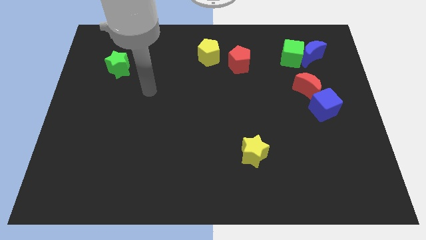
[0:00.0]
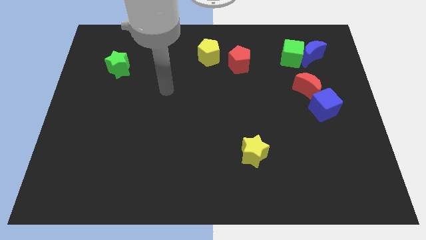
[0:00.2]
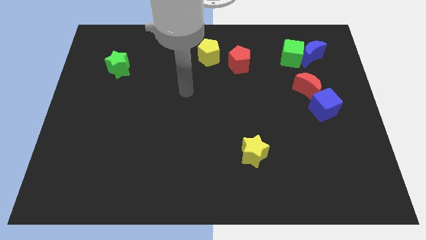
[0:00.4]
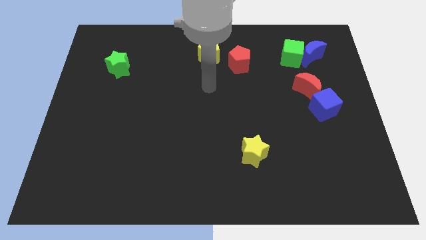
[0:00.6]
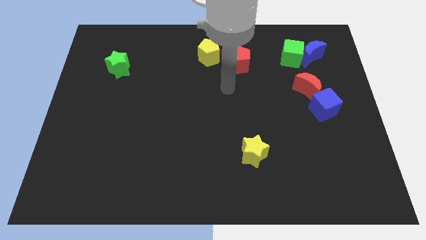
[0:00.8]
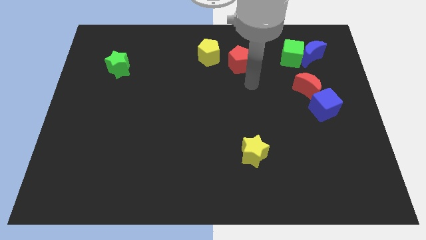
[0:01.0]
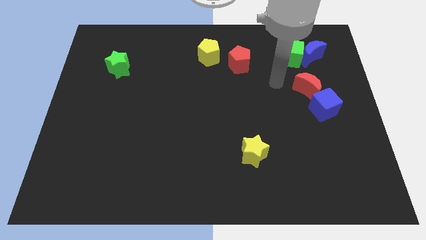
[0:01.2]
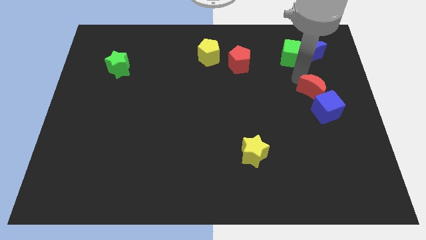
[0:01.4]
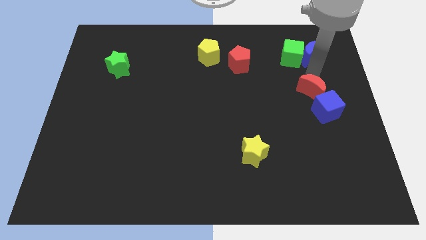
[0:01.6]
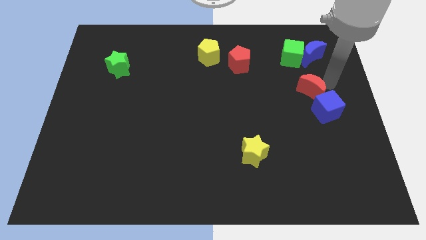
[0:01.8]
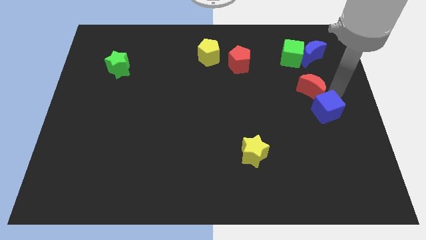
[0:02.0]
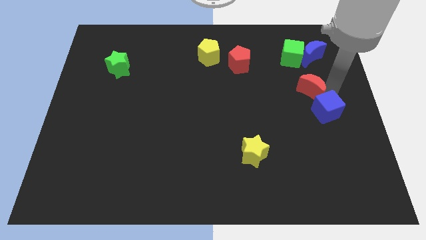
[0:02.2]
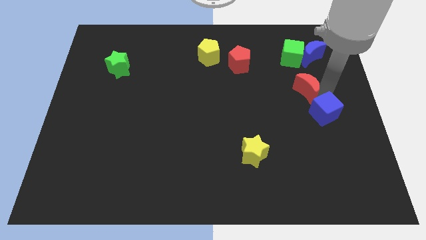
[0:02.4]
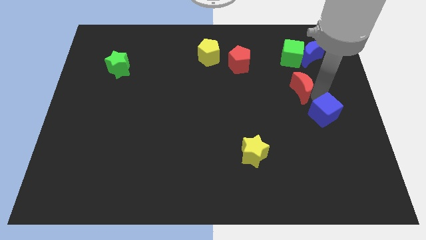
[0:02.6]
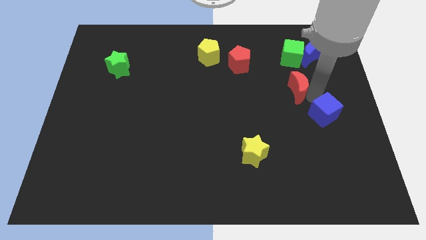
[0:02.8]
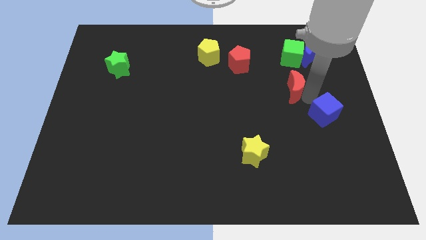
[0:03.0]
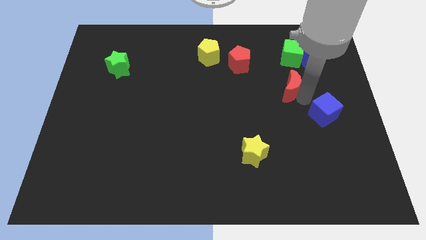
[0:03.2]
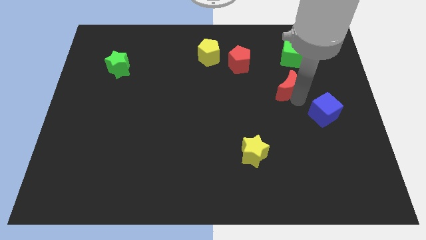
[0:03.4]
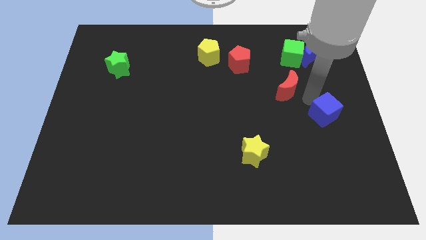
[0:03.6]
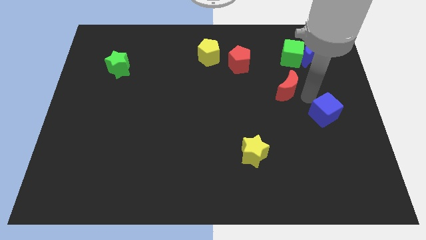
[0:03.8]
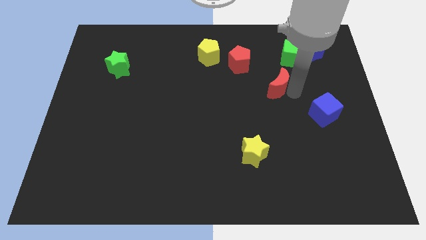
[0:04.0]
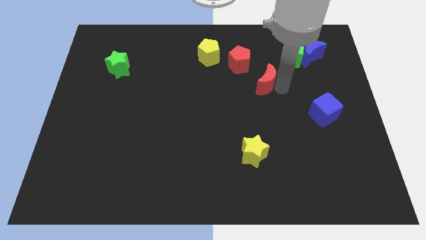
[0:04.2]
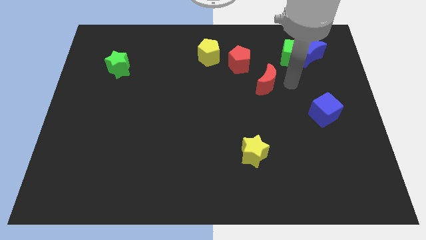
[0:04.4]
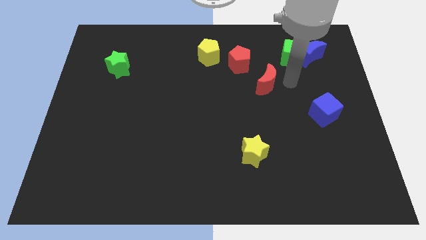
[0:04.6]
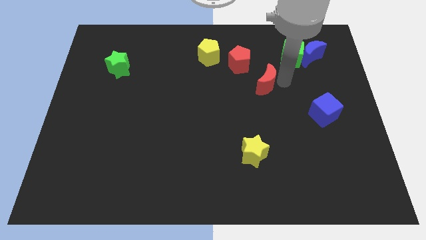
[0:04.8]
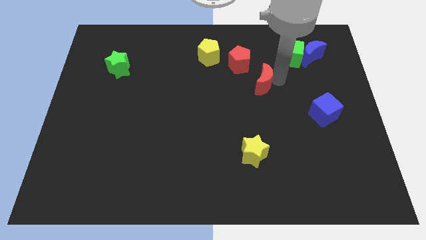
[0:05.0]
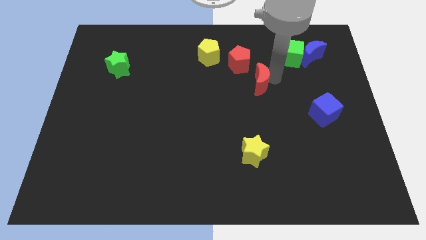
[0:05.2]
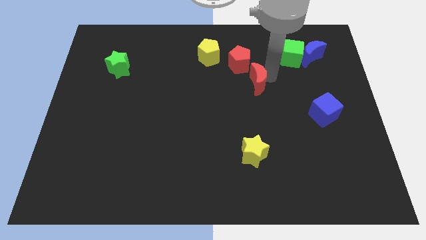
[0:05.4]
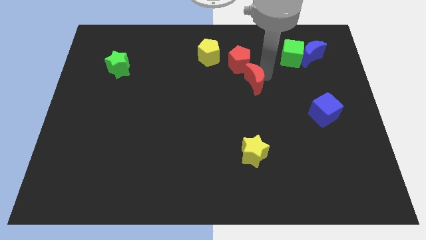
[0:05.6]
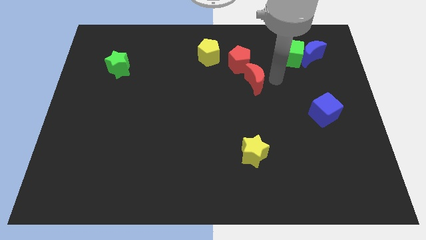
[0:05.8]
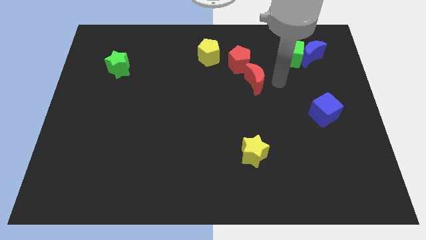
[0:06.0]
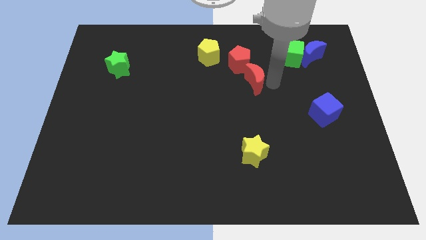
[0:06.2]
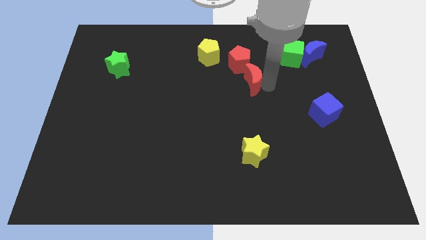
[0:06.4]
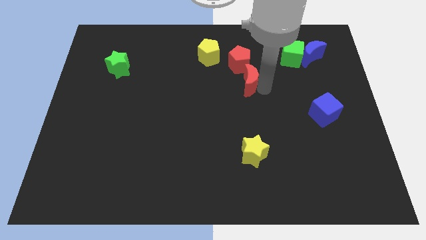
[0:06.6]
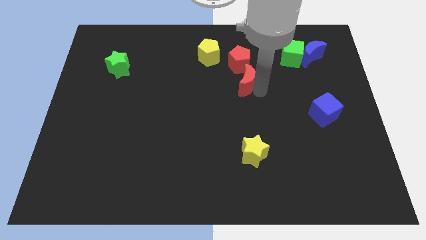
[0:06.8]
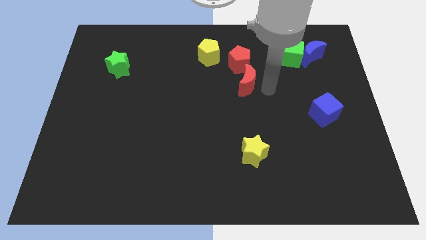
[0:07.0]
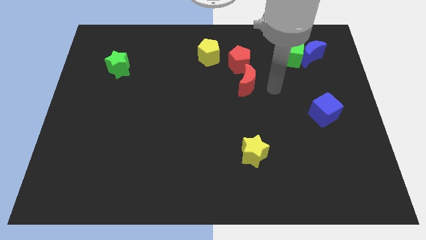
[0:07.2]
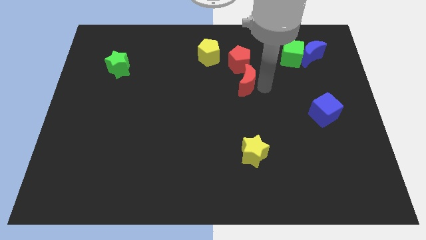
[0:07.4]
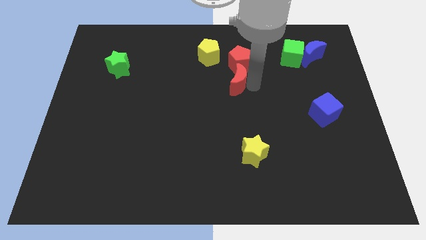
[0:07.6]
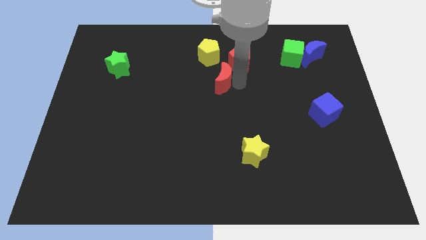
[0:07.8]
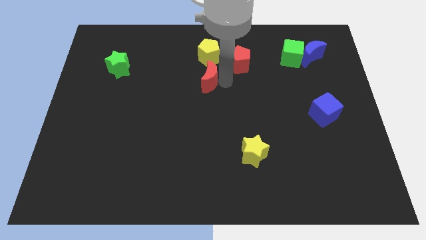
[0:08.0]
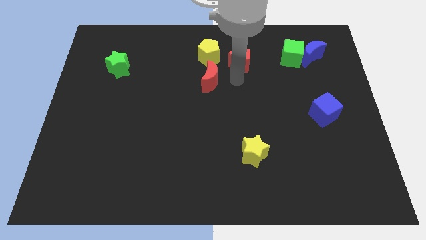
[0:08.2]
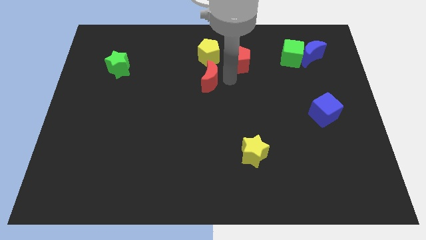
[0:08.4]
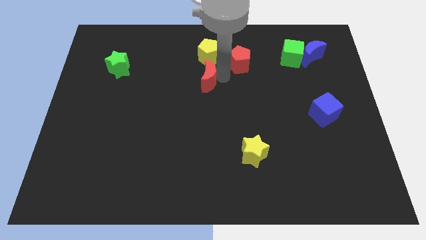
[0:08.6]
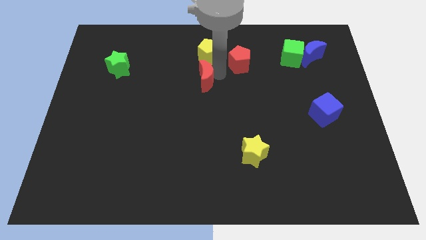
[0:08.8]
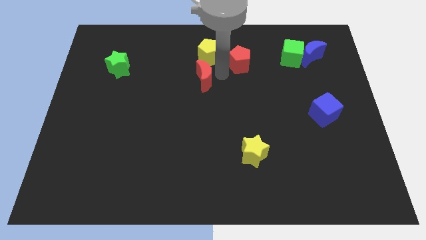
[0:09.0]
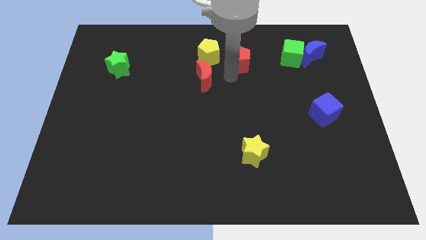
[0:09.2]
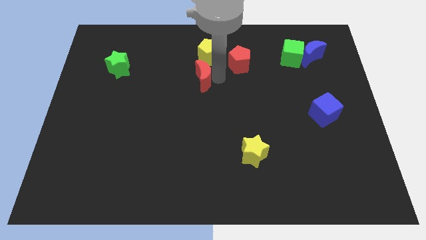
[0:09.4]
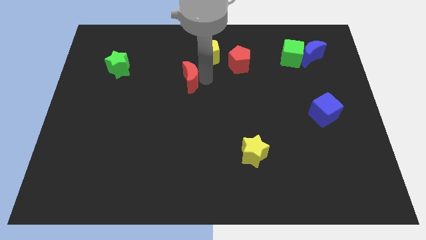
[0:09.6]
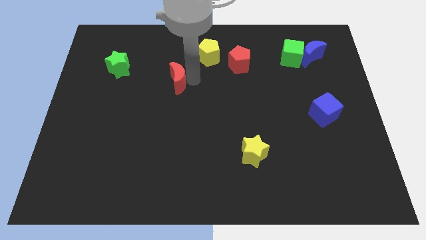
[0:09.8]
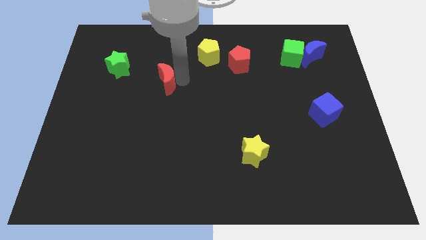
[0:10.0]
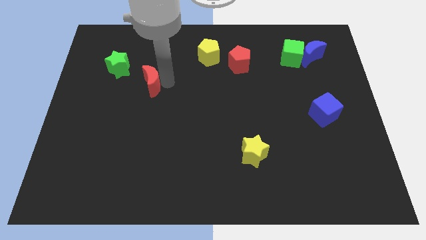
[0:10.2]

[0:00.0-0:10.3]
put the red moon diagonally down and to the right of the green star

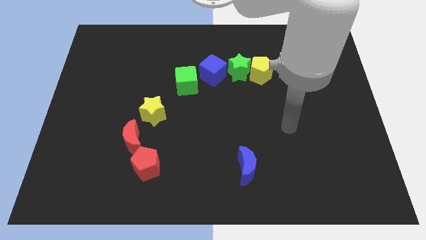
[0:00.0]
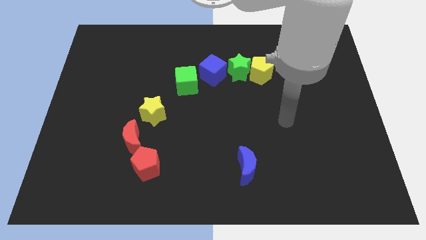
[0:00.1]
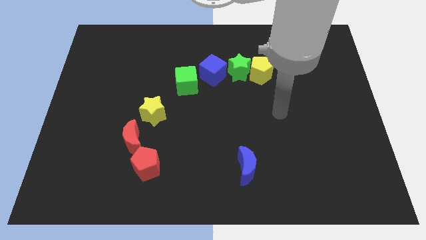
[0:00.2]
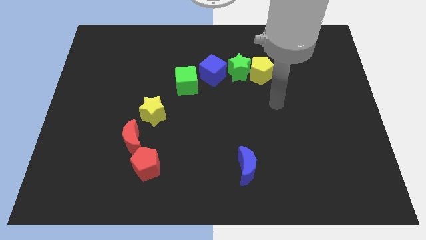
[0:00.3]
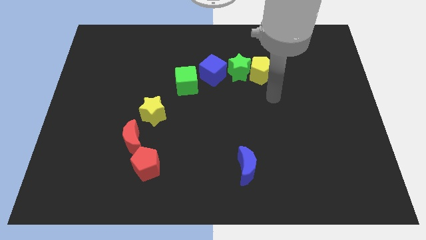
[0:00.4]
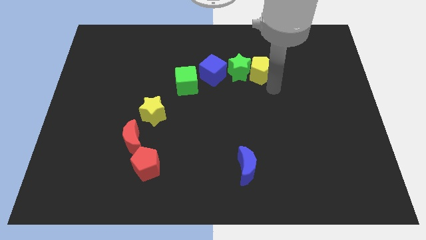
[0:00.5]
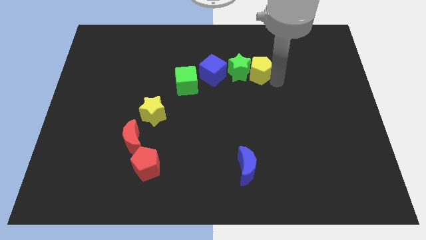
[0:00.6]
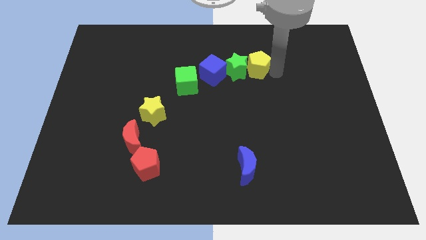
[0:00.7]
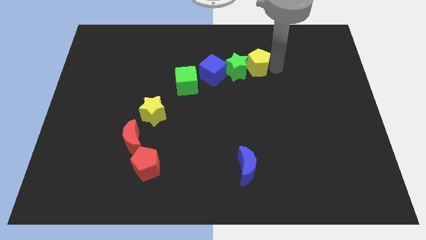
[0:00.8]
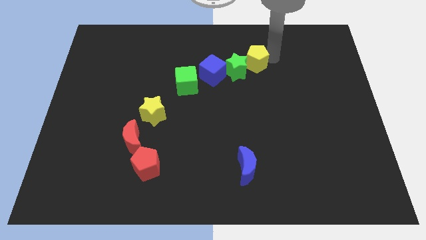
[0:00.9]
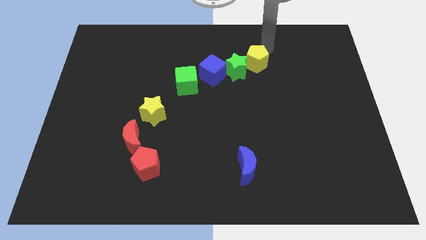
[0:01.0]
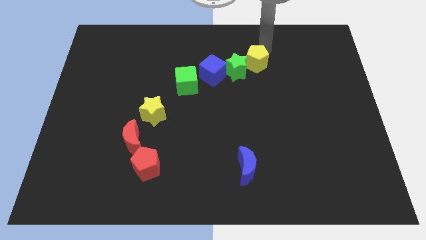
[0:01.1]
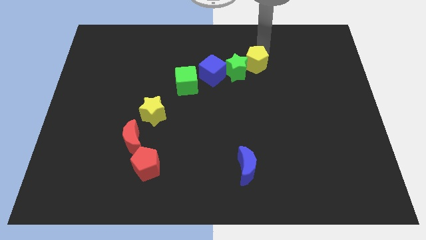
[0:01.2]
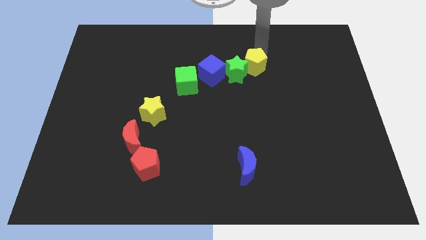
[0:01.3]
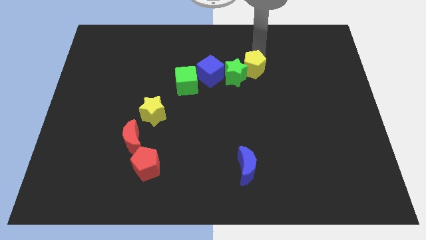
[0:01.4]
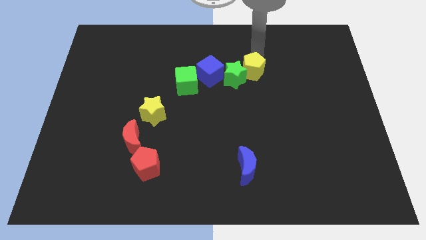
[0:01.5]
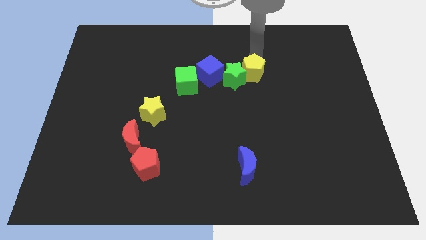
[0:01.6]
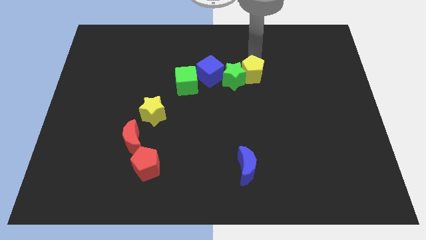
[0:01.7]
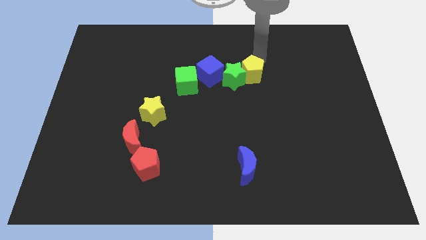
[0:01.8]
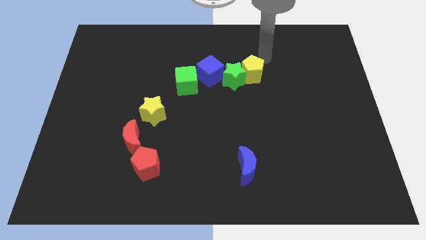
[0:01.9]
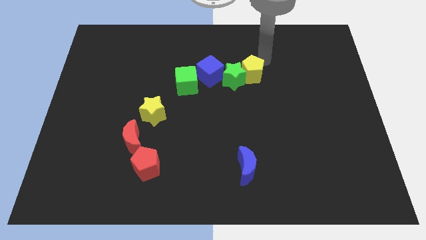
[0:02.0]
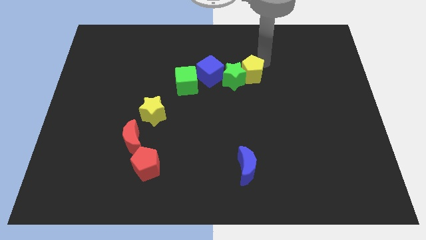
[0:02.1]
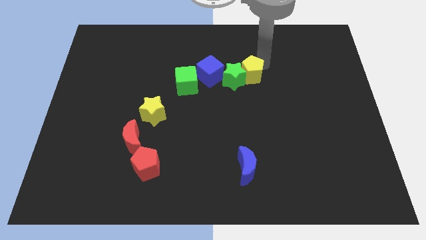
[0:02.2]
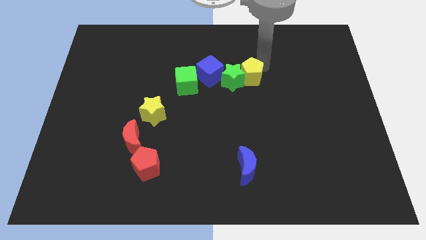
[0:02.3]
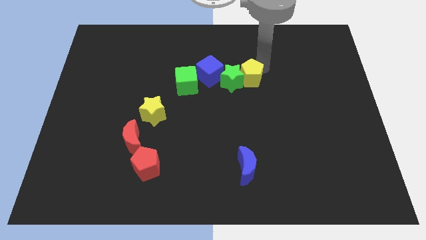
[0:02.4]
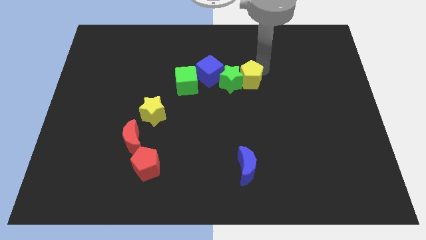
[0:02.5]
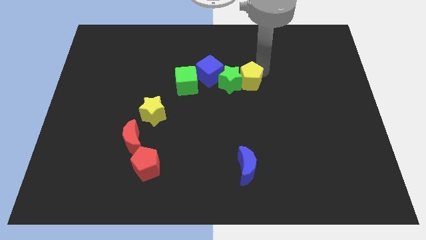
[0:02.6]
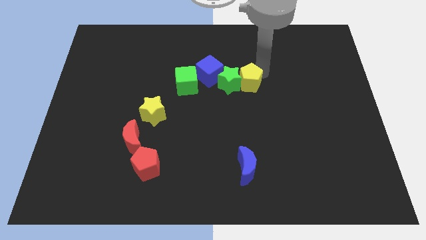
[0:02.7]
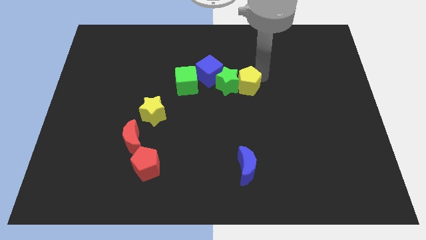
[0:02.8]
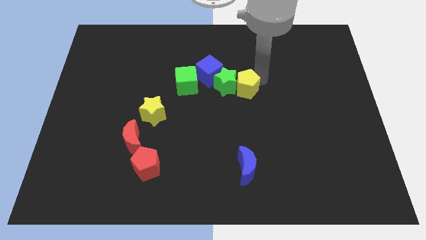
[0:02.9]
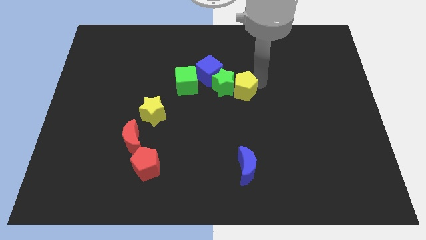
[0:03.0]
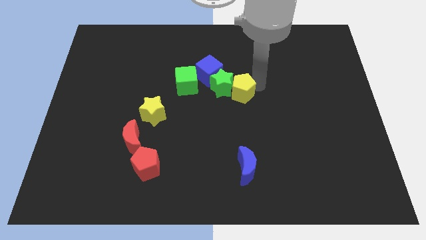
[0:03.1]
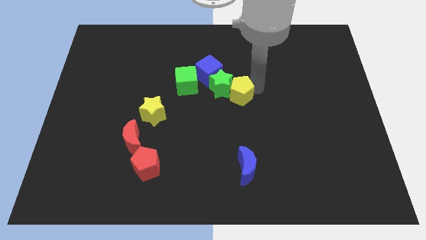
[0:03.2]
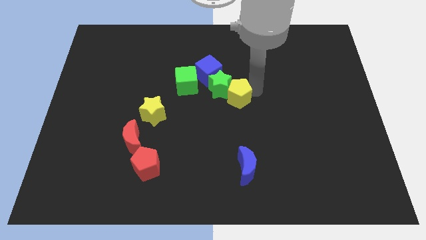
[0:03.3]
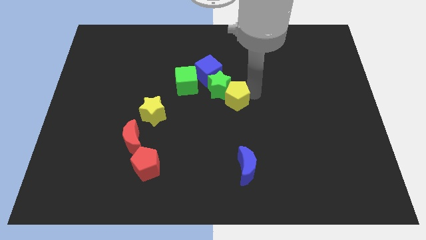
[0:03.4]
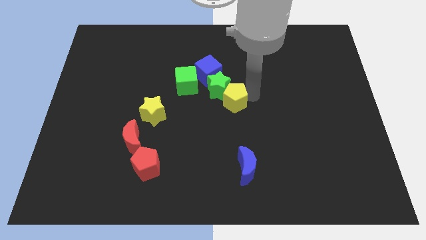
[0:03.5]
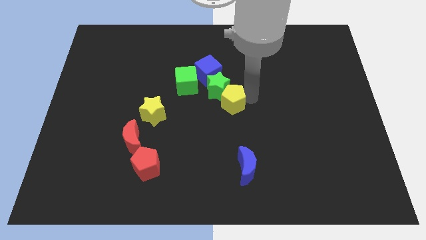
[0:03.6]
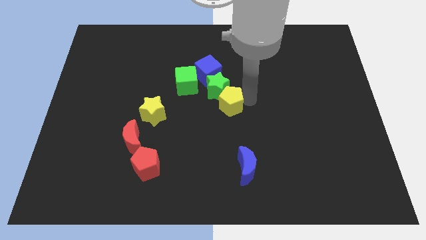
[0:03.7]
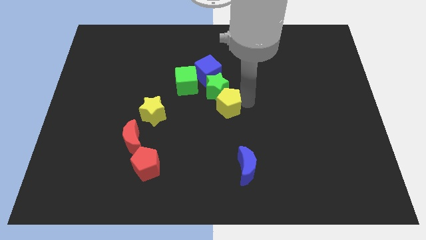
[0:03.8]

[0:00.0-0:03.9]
move the yellow pentagon to the bottom of the blue cube
